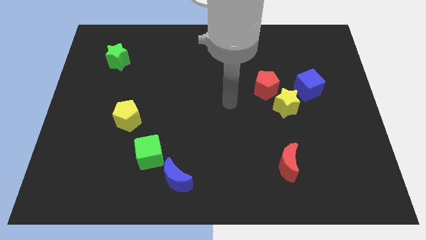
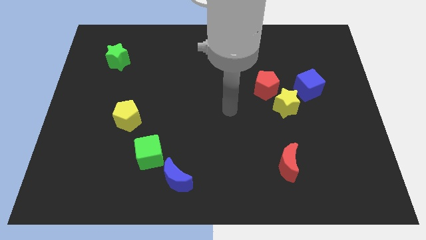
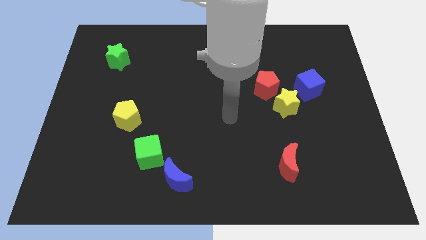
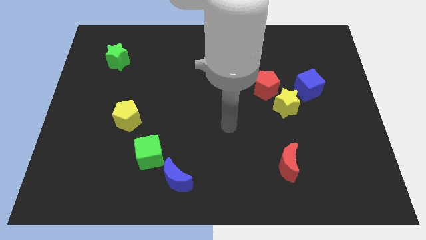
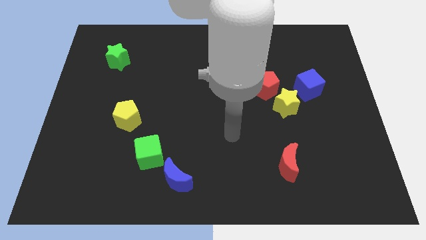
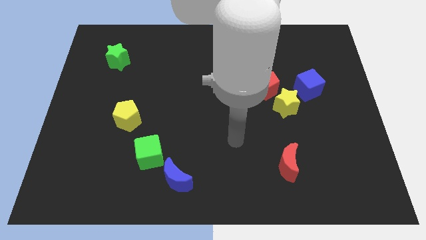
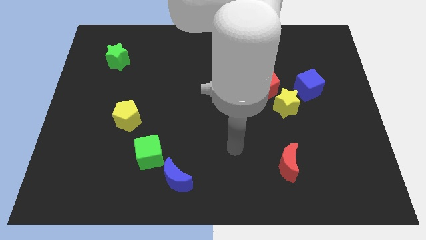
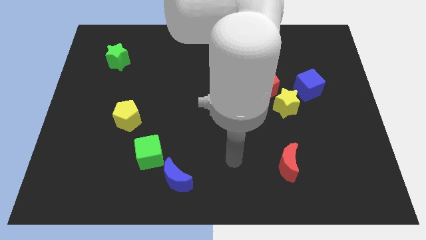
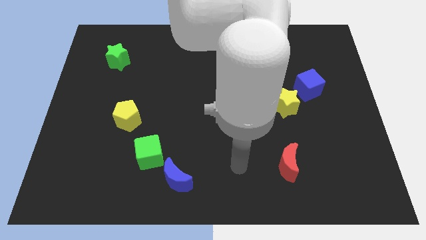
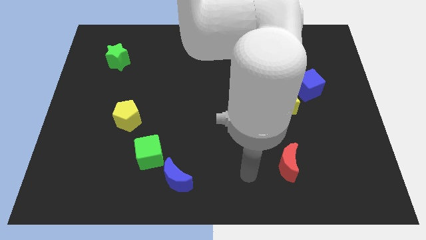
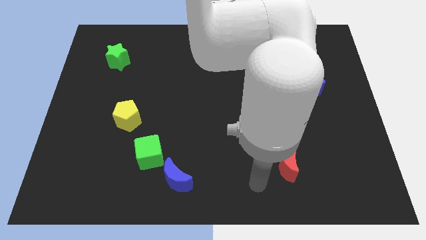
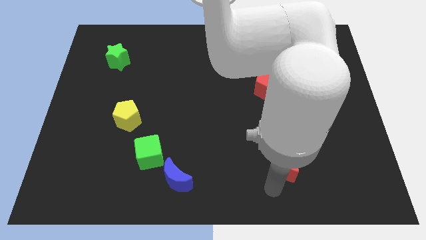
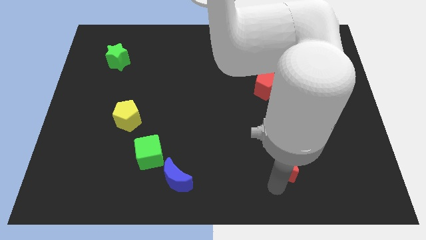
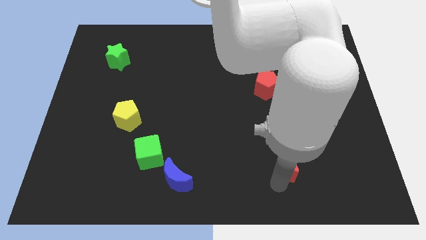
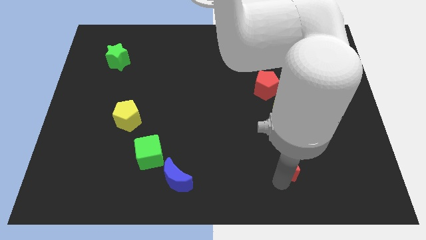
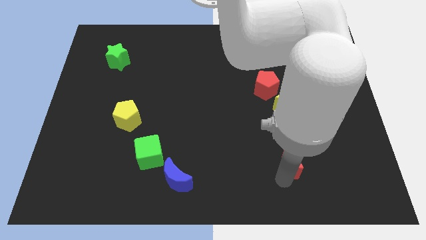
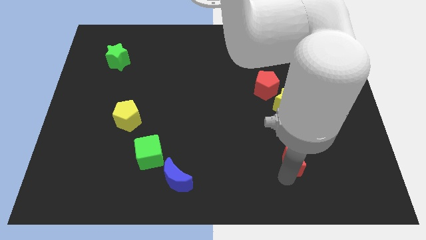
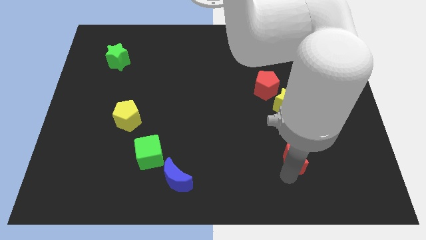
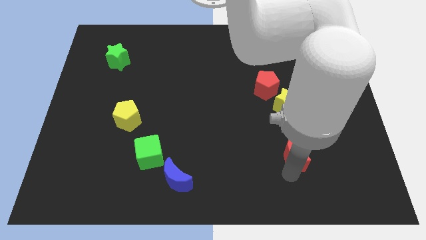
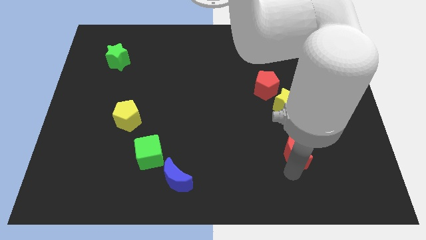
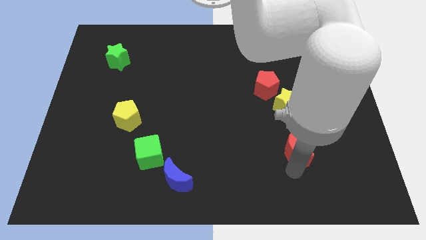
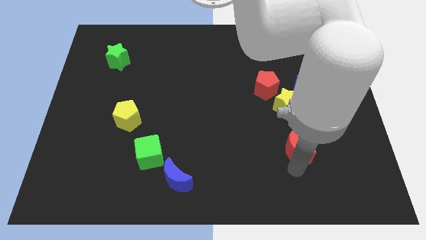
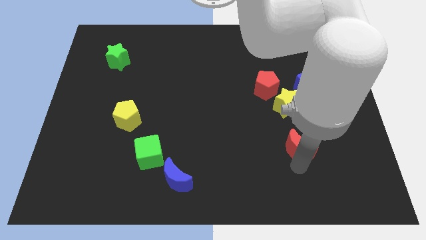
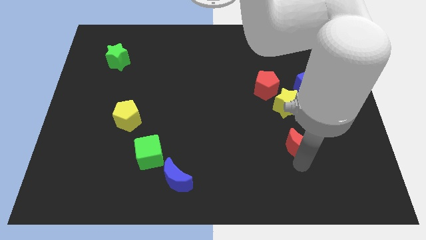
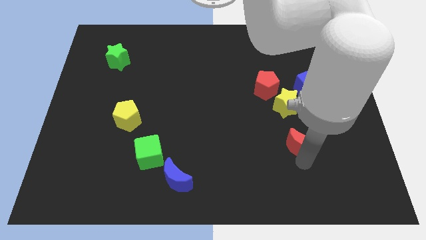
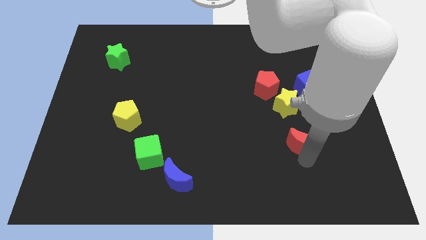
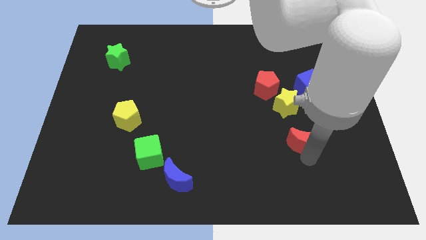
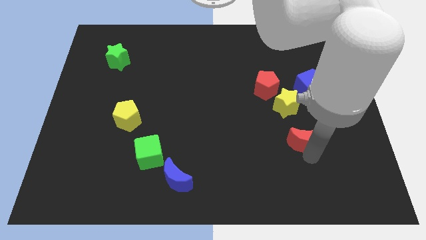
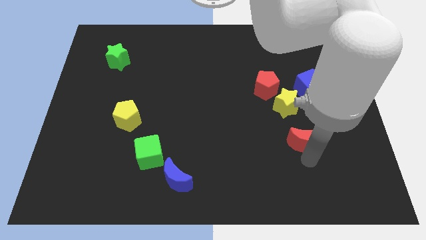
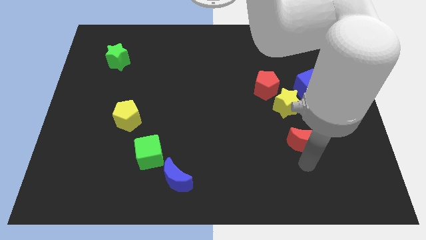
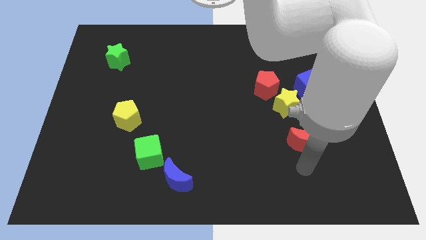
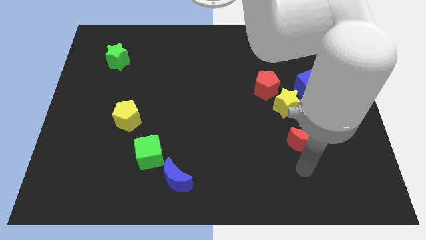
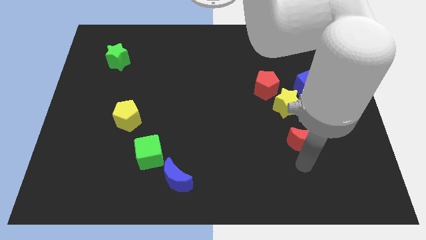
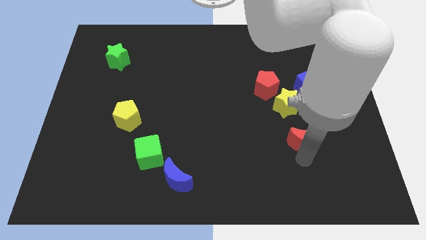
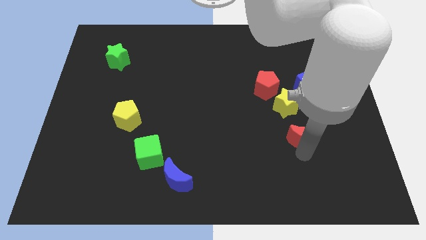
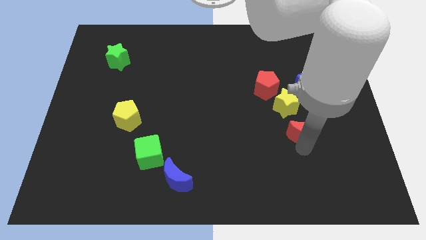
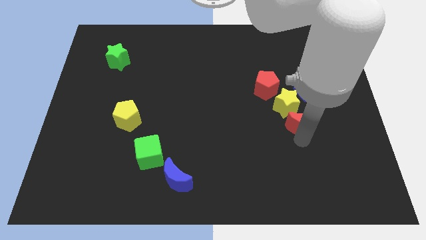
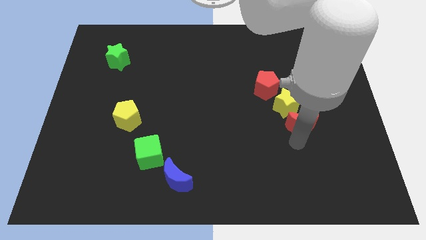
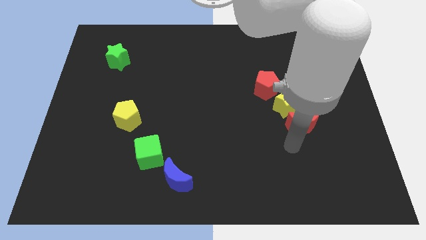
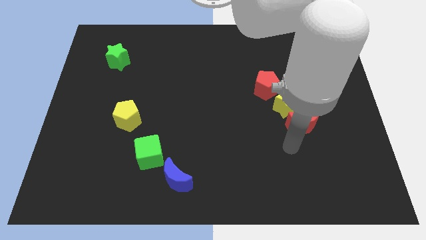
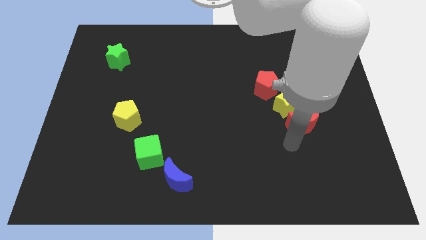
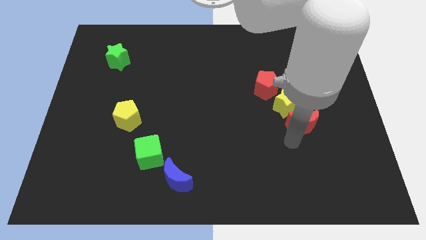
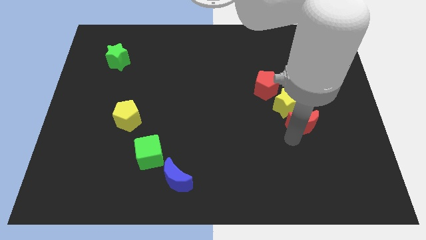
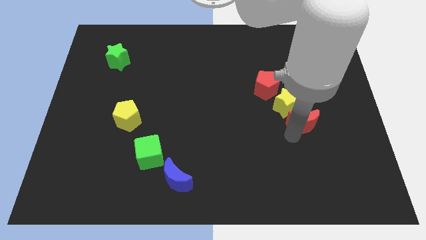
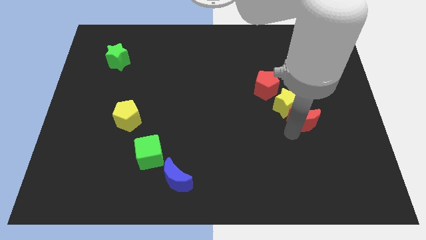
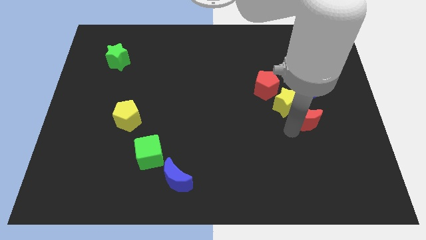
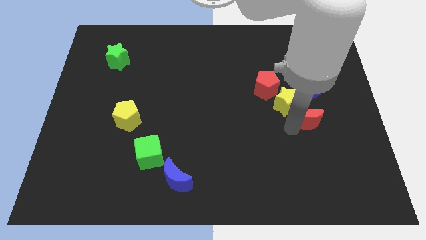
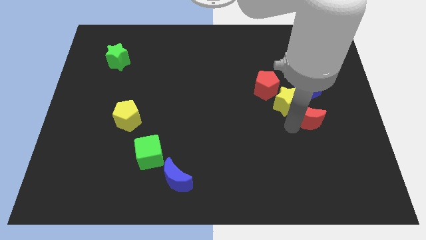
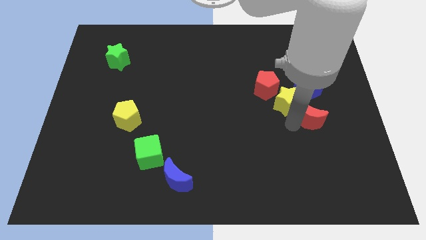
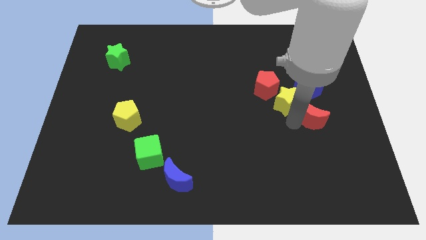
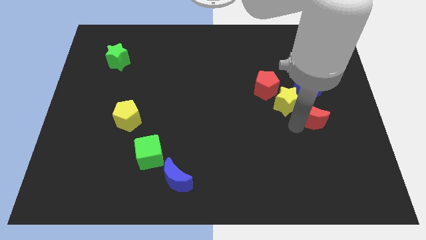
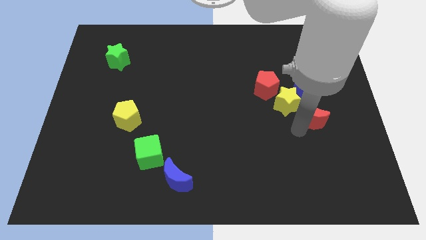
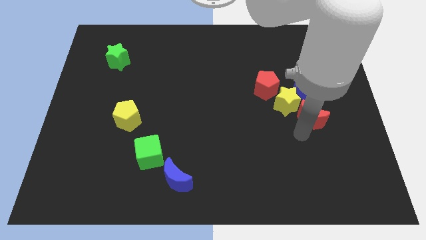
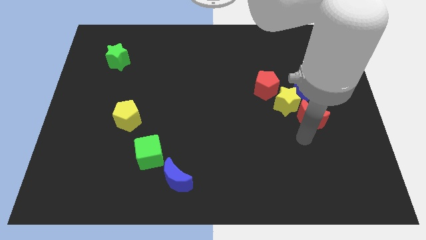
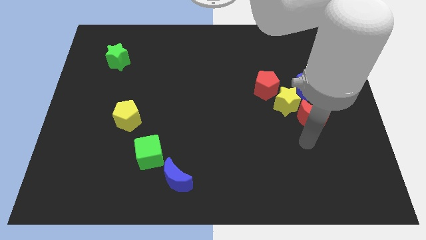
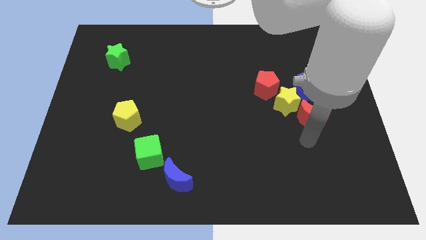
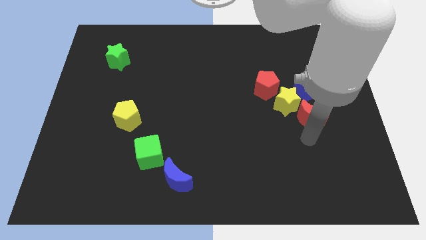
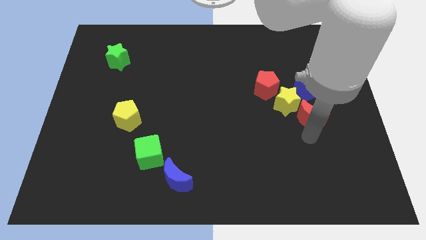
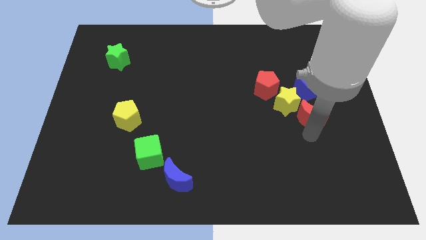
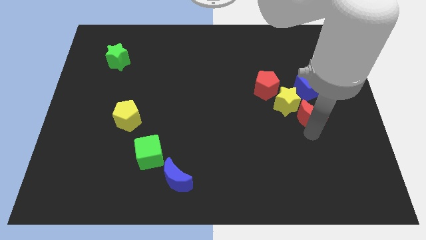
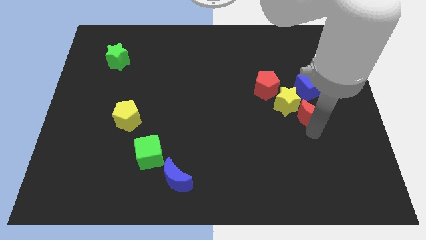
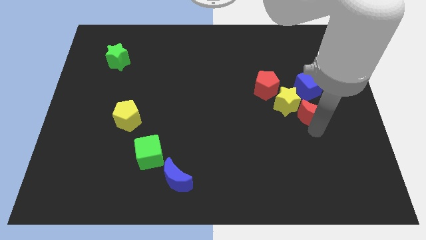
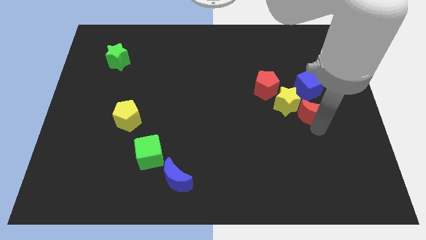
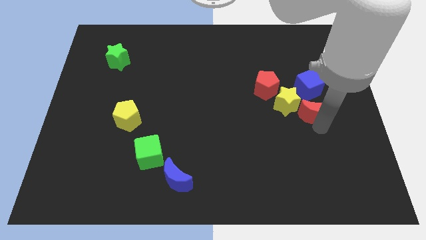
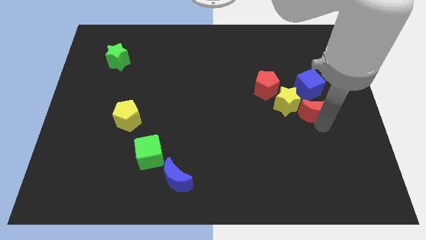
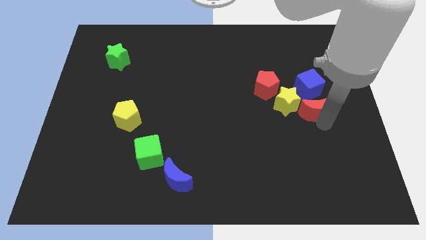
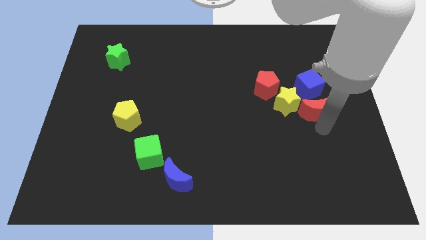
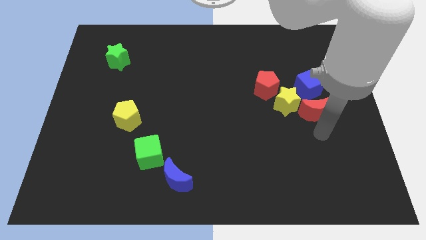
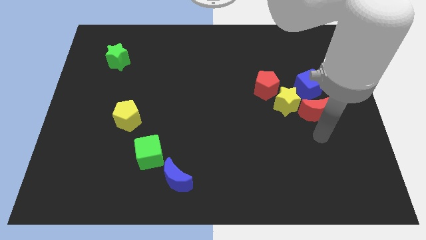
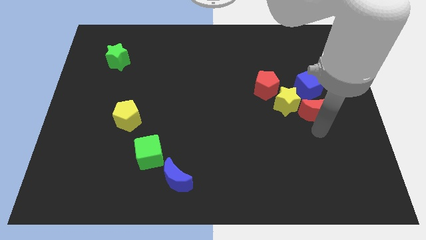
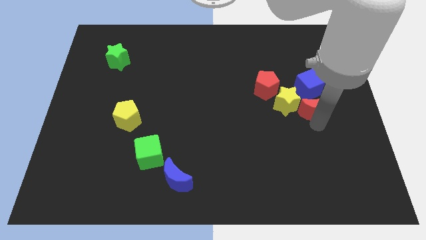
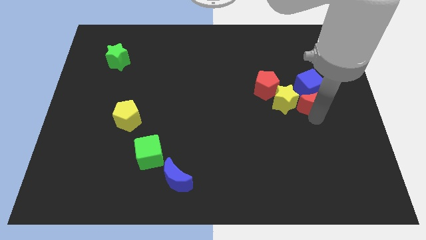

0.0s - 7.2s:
push the red moon close to the blue cube

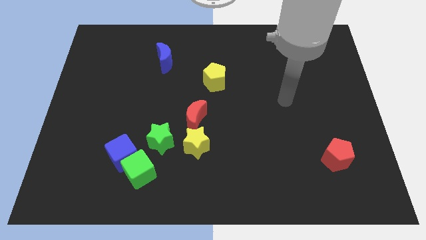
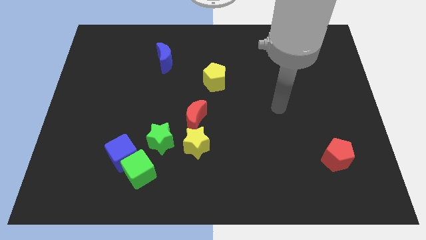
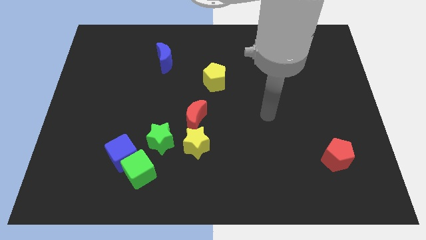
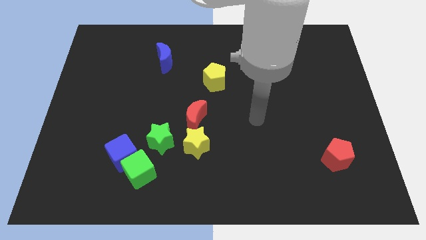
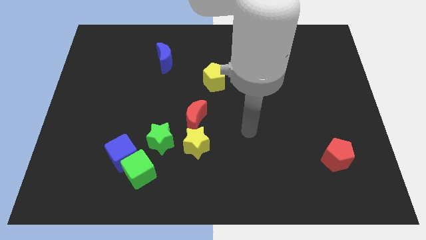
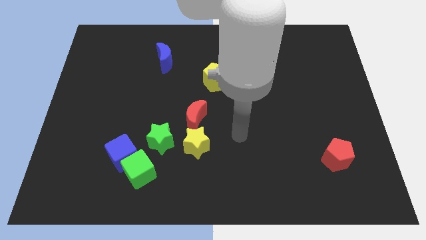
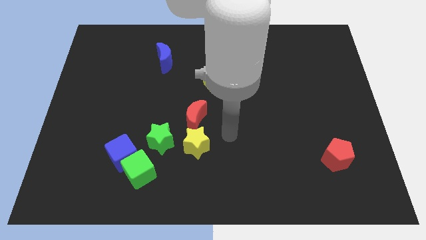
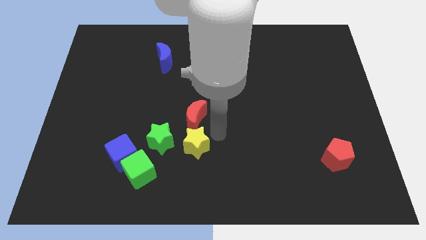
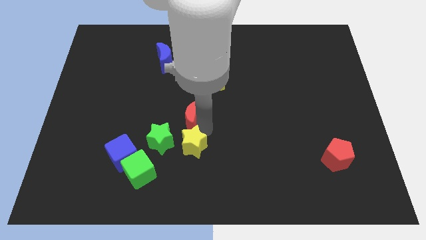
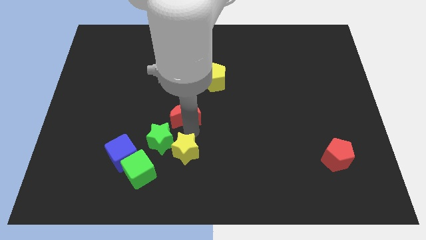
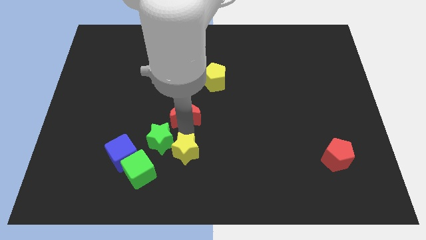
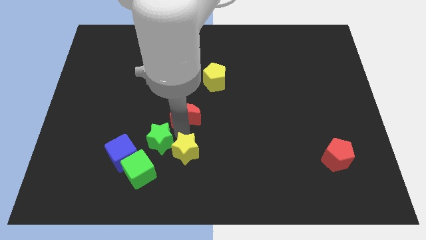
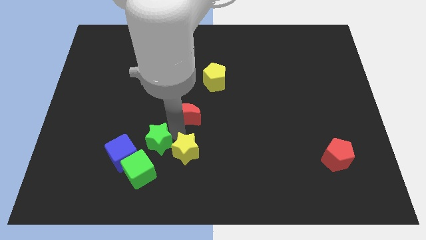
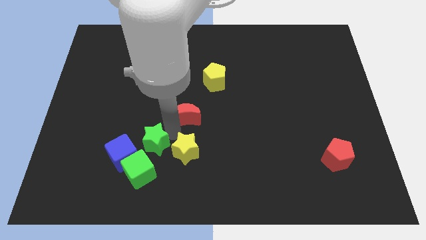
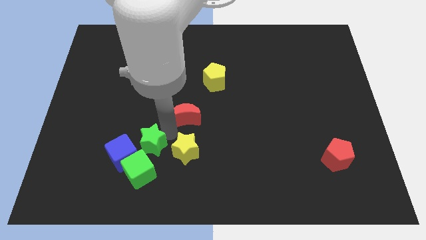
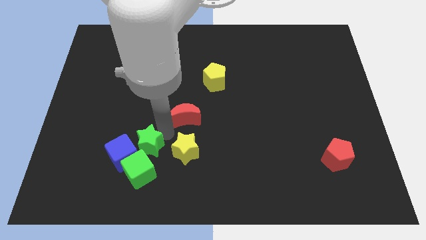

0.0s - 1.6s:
slide the green star next to the blue cube
